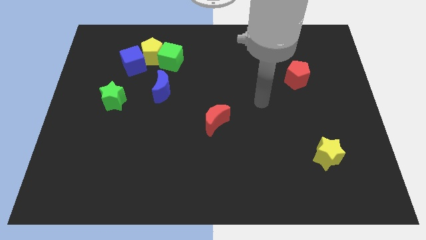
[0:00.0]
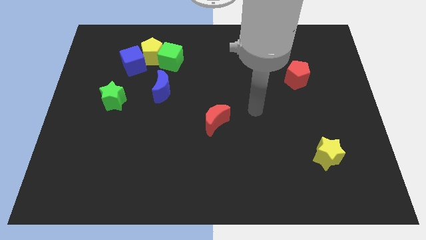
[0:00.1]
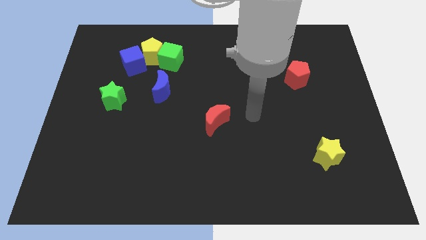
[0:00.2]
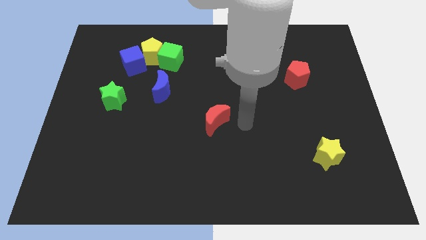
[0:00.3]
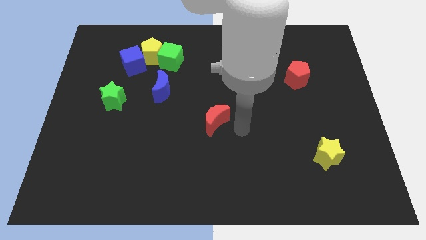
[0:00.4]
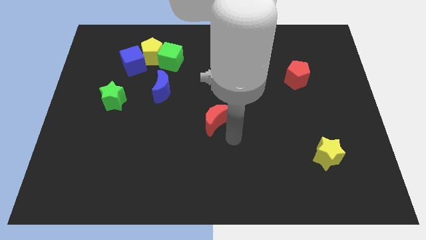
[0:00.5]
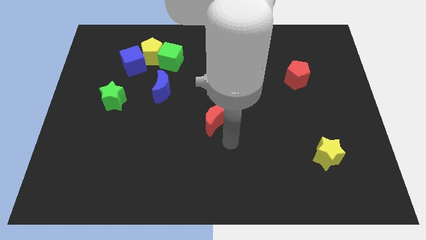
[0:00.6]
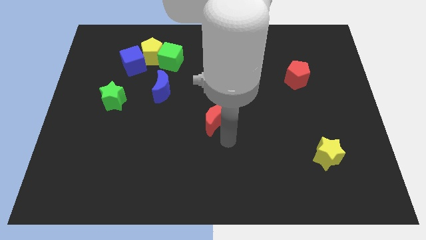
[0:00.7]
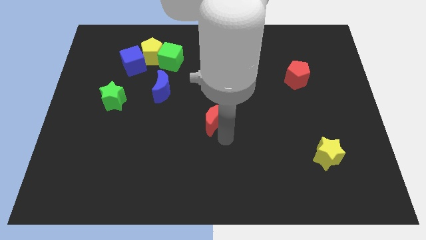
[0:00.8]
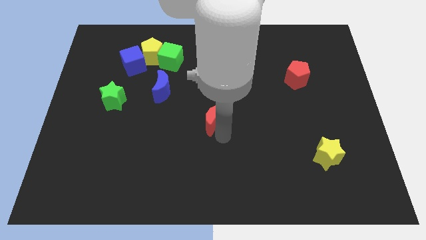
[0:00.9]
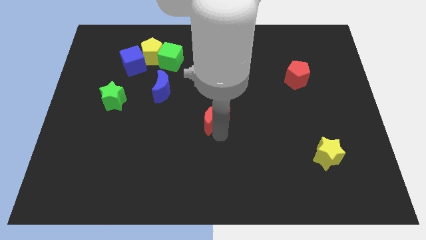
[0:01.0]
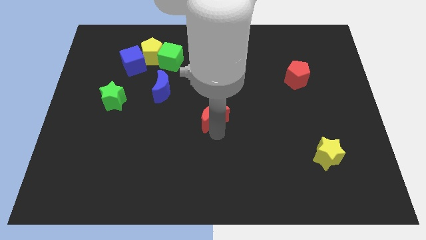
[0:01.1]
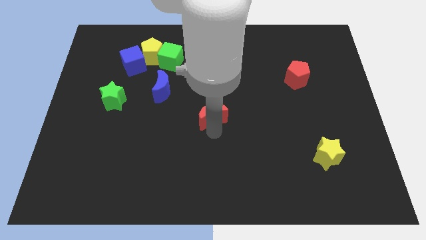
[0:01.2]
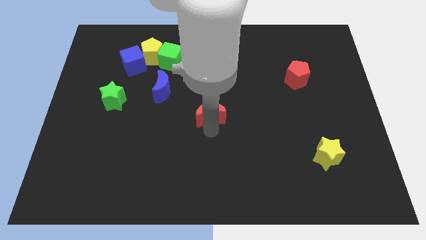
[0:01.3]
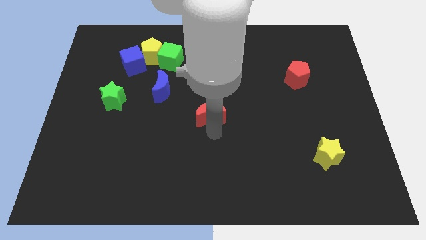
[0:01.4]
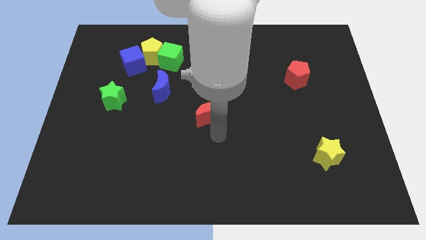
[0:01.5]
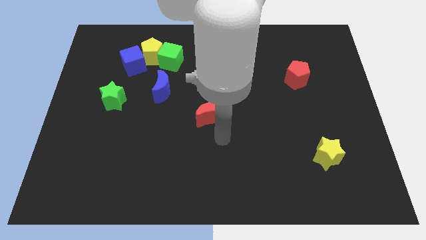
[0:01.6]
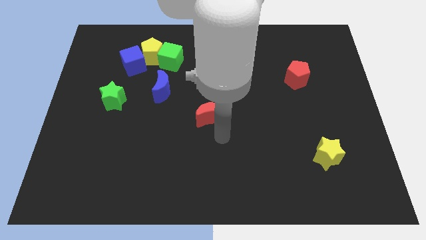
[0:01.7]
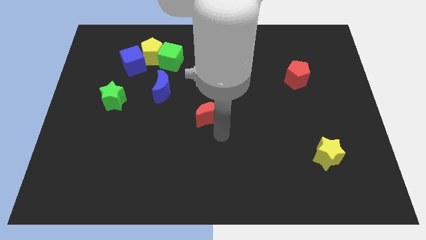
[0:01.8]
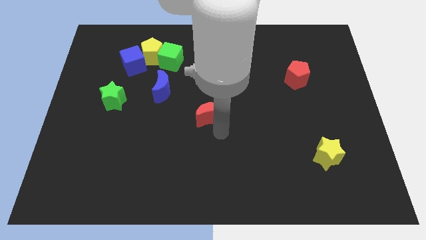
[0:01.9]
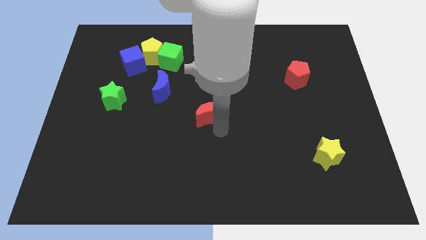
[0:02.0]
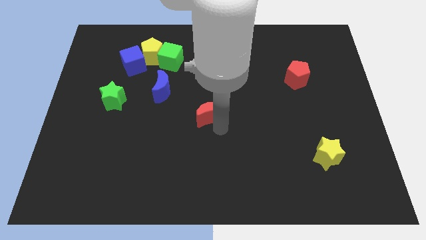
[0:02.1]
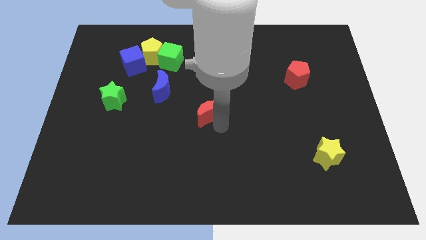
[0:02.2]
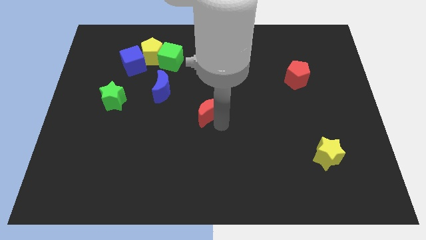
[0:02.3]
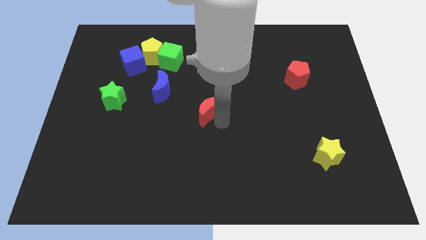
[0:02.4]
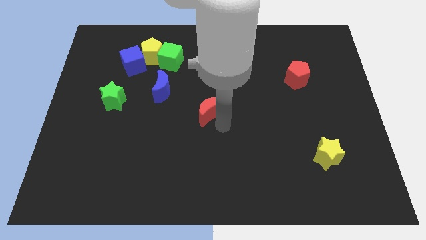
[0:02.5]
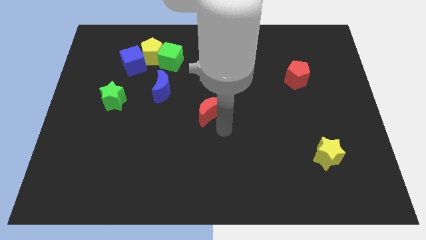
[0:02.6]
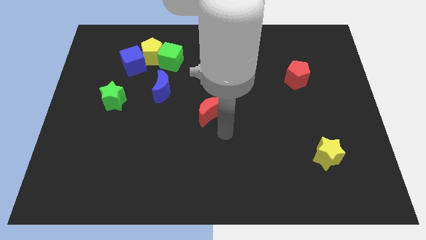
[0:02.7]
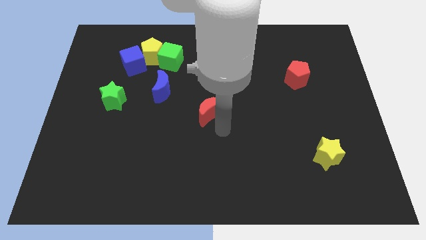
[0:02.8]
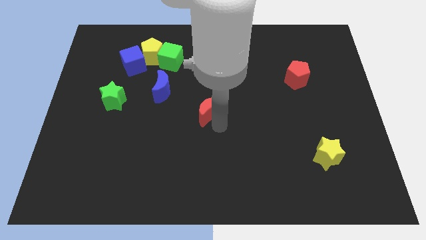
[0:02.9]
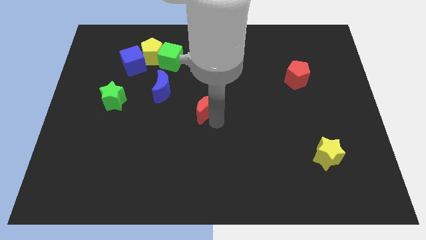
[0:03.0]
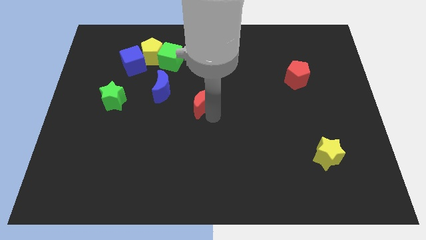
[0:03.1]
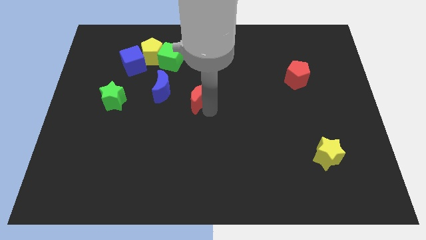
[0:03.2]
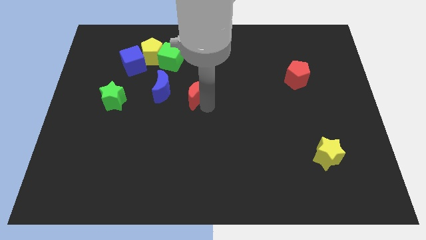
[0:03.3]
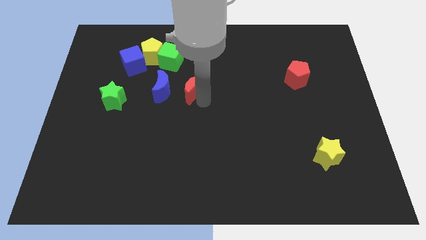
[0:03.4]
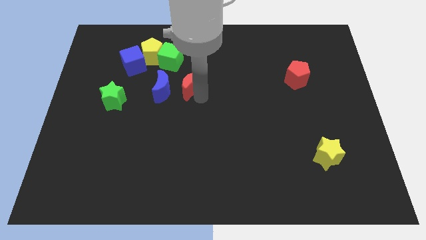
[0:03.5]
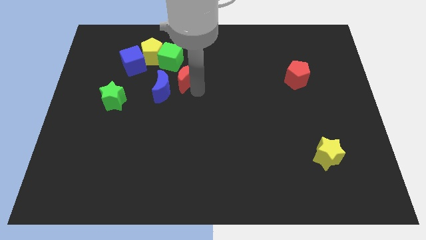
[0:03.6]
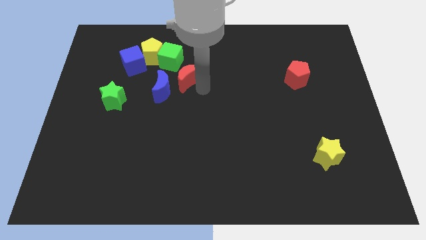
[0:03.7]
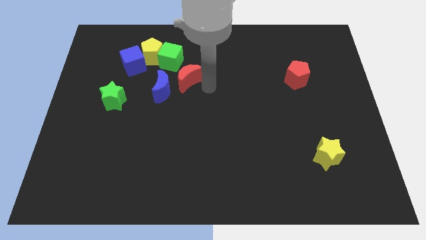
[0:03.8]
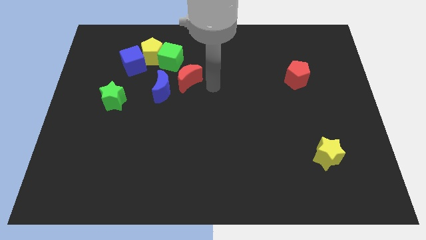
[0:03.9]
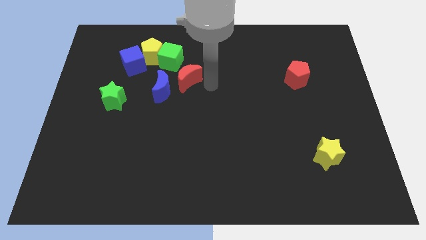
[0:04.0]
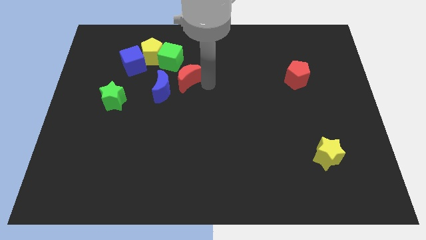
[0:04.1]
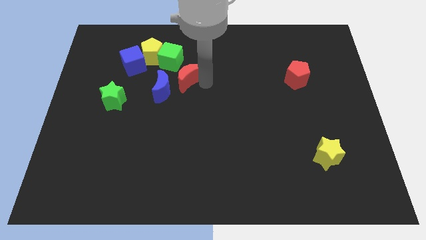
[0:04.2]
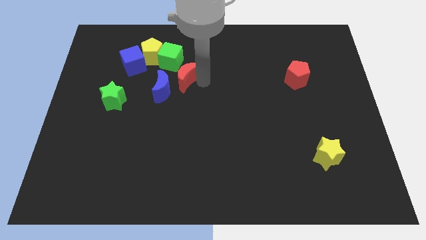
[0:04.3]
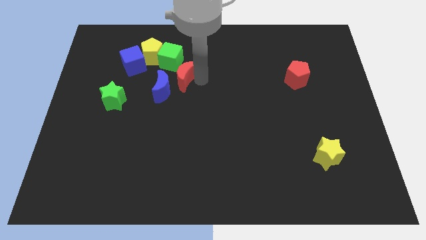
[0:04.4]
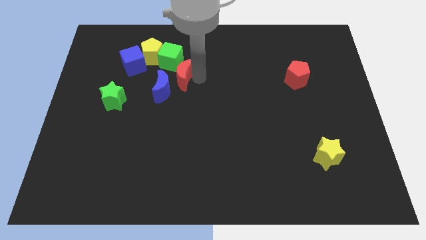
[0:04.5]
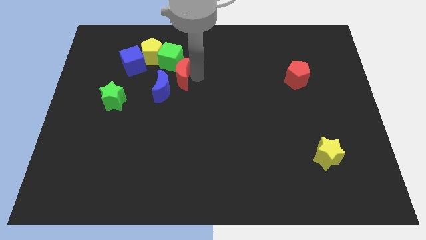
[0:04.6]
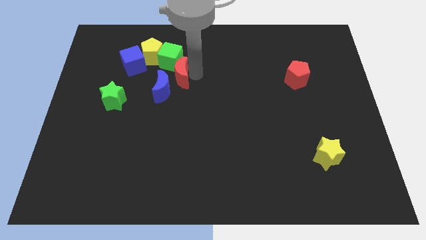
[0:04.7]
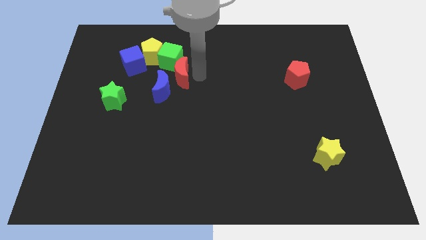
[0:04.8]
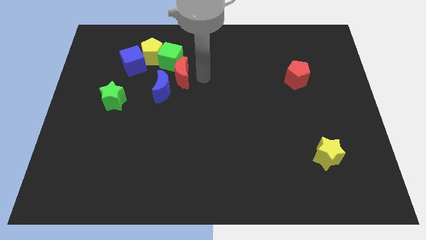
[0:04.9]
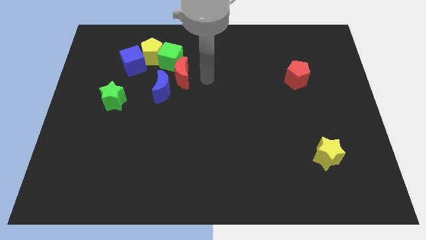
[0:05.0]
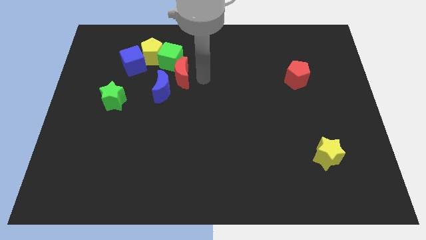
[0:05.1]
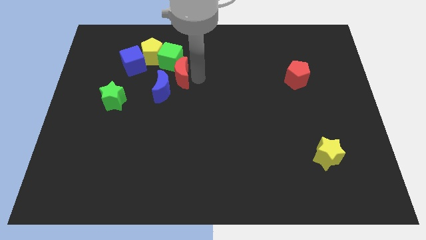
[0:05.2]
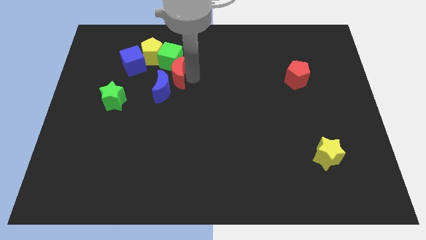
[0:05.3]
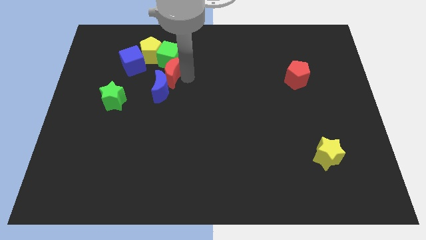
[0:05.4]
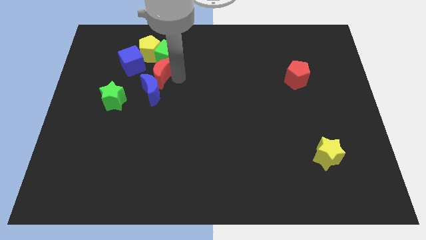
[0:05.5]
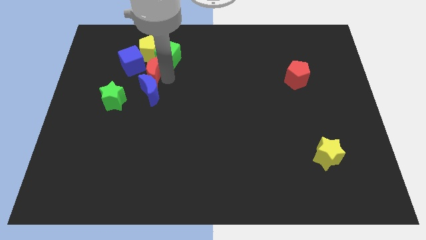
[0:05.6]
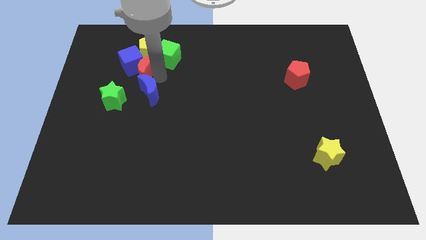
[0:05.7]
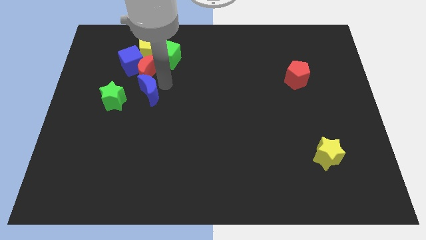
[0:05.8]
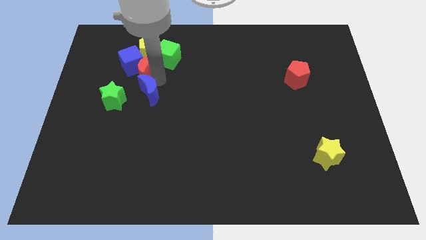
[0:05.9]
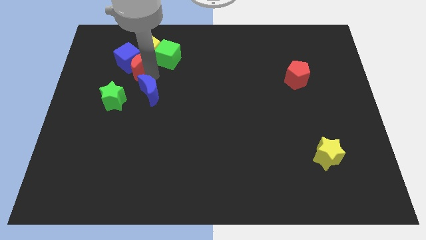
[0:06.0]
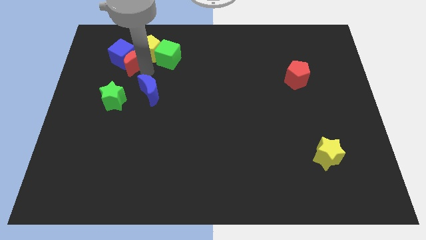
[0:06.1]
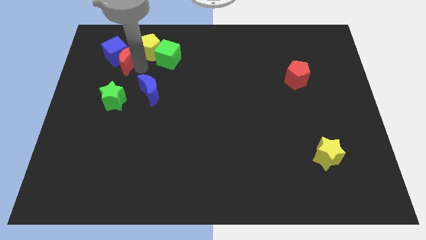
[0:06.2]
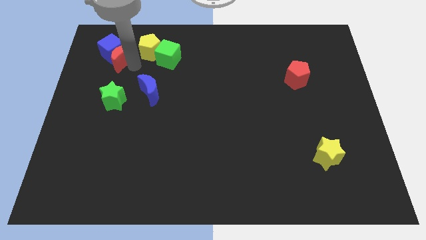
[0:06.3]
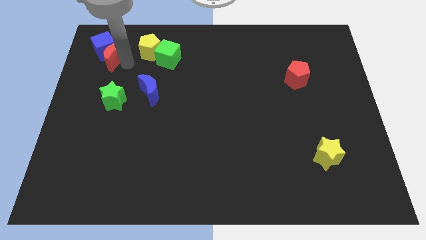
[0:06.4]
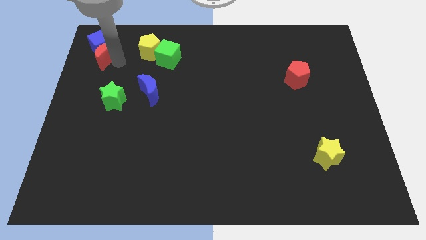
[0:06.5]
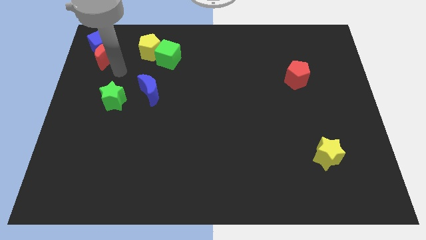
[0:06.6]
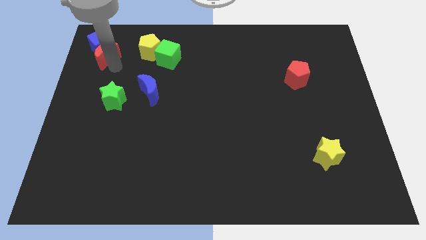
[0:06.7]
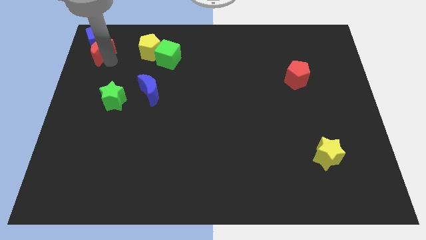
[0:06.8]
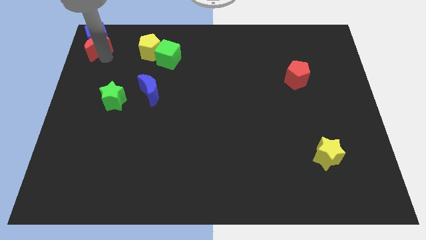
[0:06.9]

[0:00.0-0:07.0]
move the red moon to the top left corner
